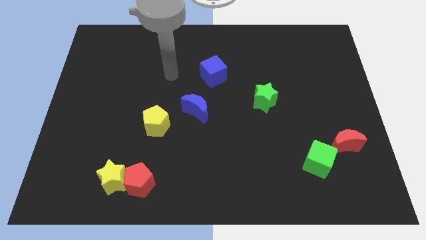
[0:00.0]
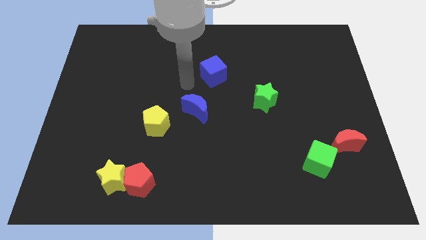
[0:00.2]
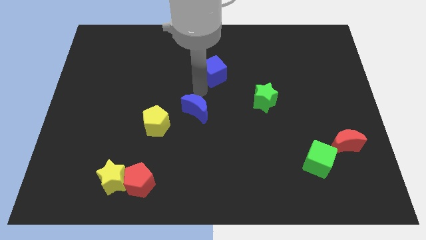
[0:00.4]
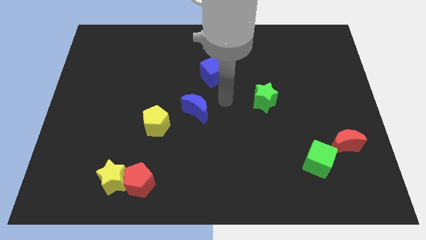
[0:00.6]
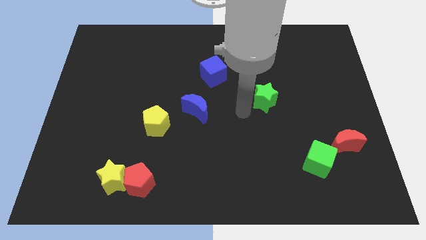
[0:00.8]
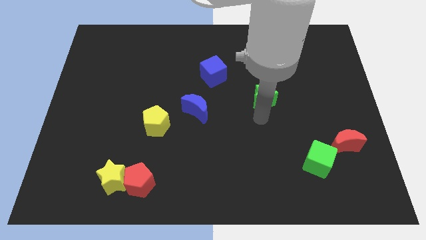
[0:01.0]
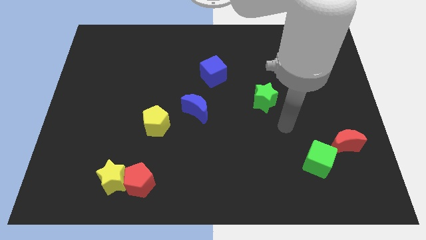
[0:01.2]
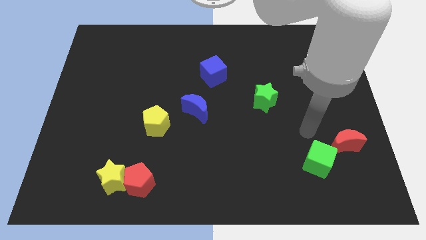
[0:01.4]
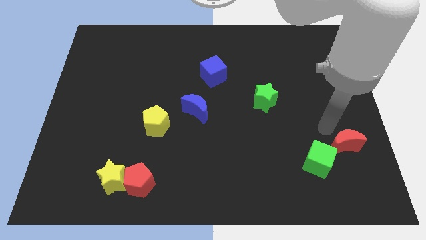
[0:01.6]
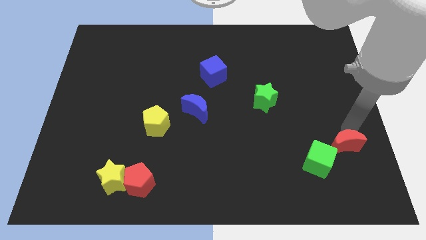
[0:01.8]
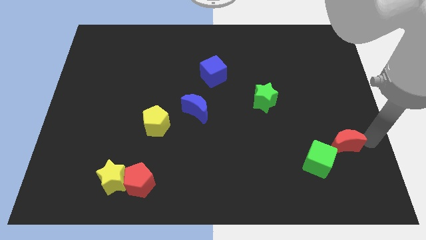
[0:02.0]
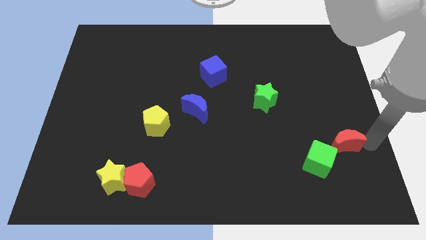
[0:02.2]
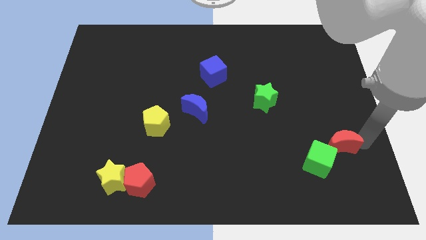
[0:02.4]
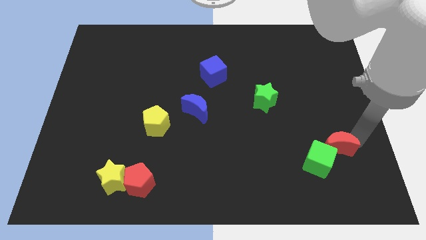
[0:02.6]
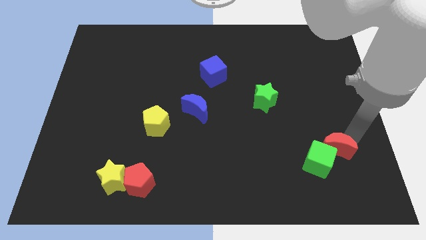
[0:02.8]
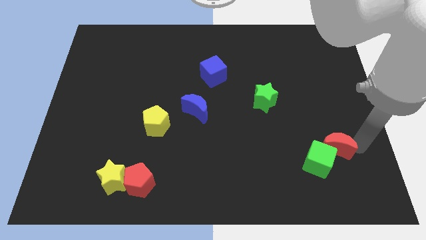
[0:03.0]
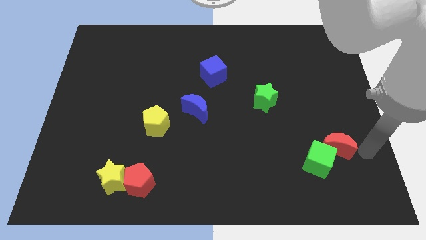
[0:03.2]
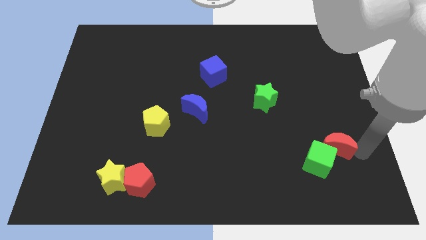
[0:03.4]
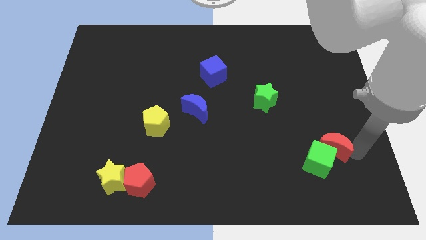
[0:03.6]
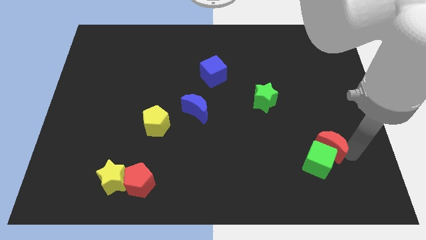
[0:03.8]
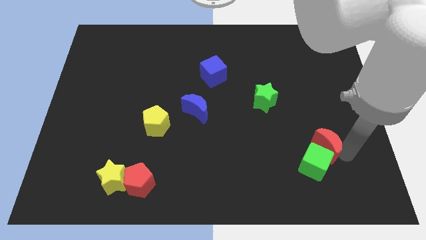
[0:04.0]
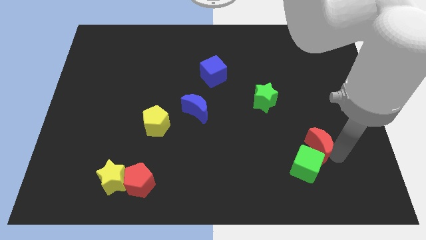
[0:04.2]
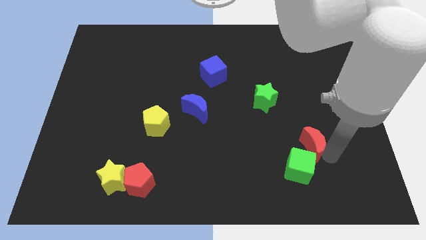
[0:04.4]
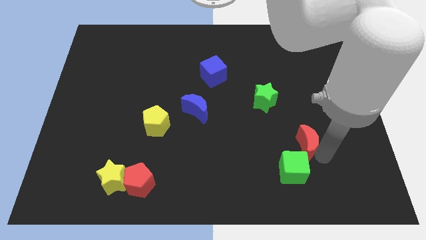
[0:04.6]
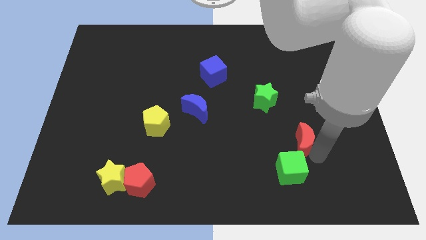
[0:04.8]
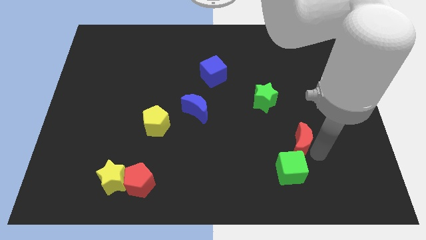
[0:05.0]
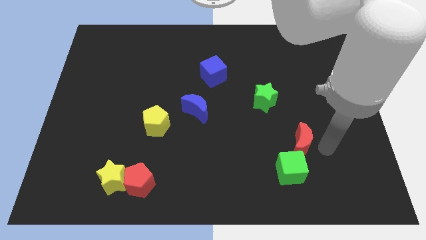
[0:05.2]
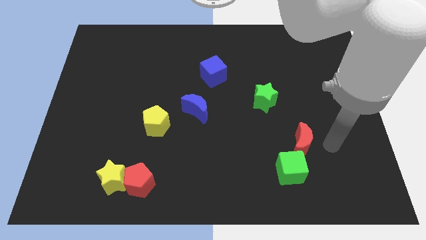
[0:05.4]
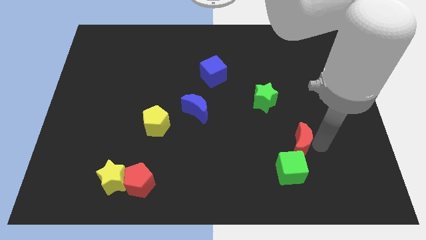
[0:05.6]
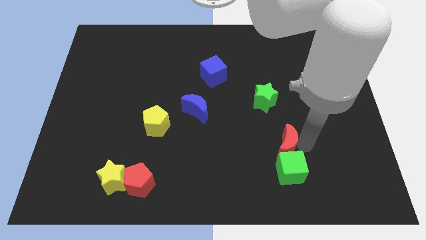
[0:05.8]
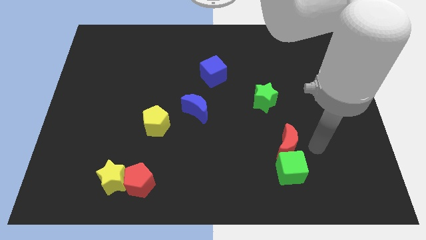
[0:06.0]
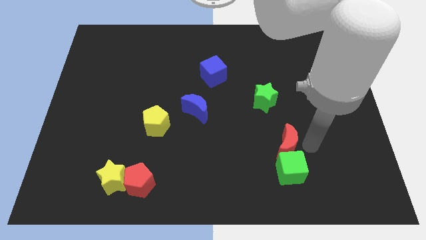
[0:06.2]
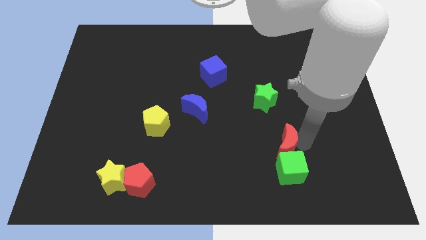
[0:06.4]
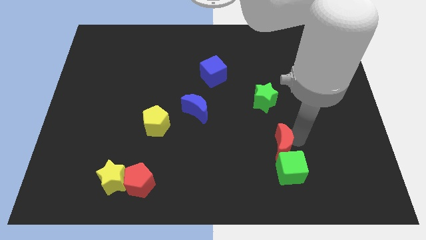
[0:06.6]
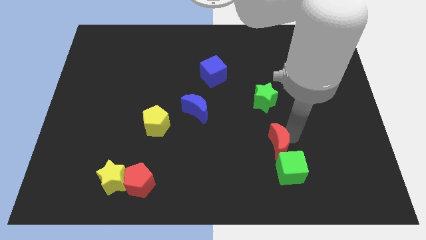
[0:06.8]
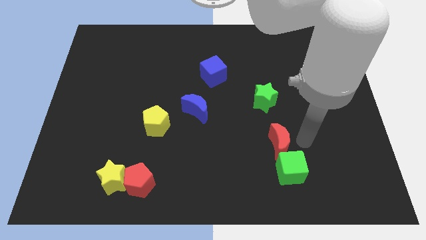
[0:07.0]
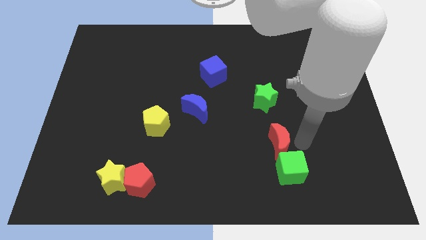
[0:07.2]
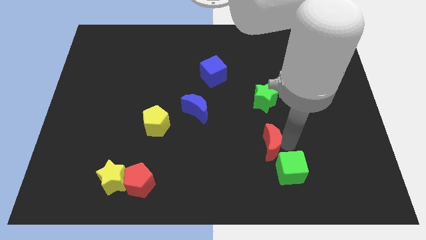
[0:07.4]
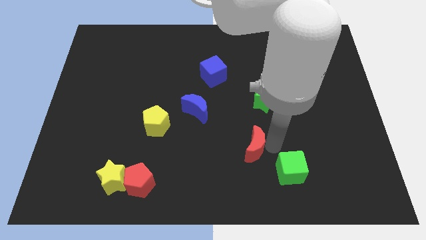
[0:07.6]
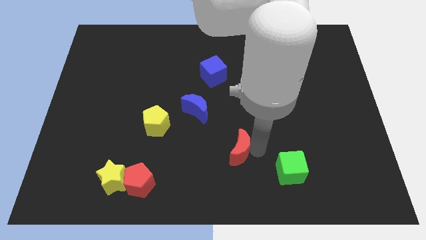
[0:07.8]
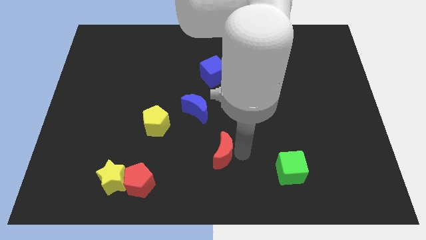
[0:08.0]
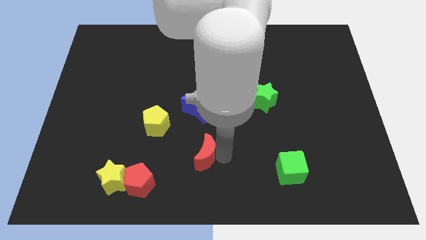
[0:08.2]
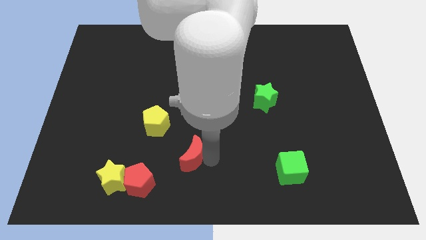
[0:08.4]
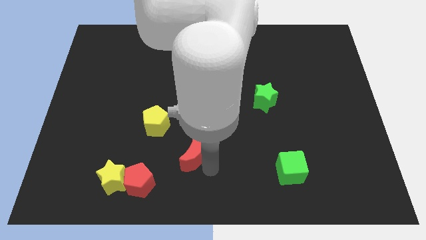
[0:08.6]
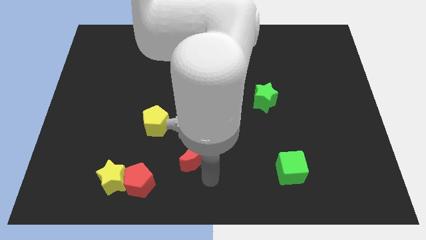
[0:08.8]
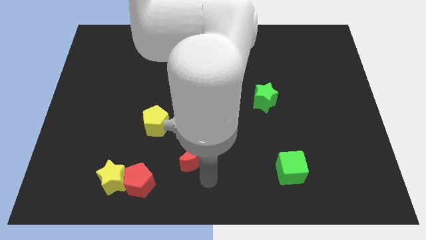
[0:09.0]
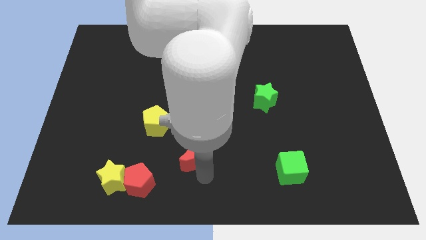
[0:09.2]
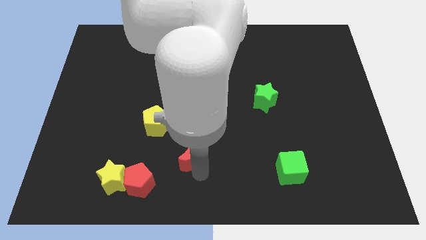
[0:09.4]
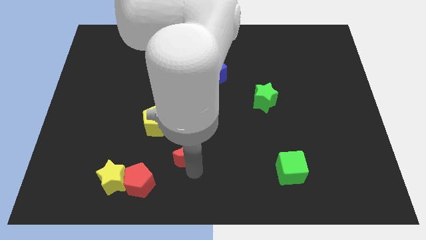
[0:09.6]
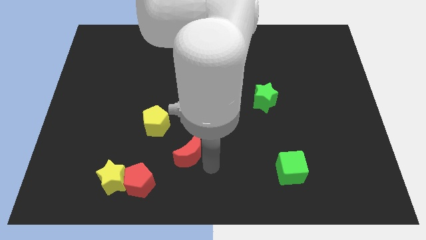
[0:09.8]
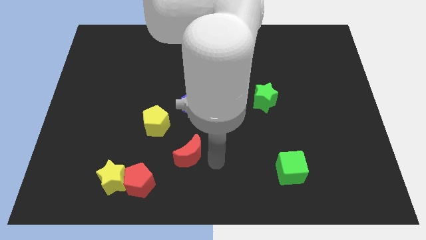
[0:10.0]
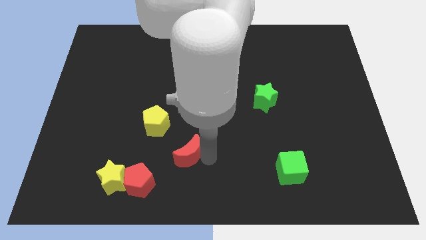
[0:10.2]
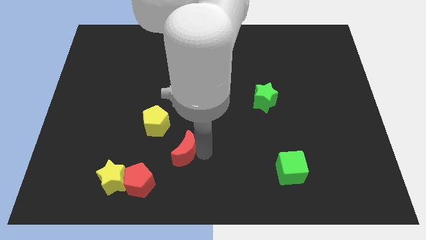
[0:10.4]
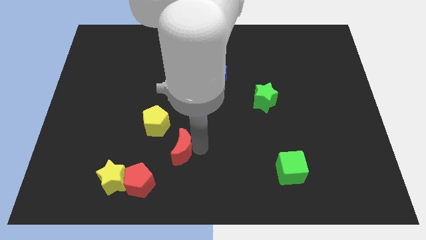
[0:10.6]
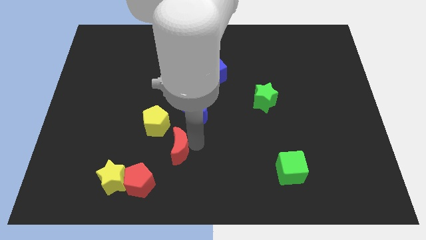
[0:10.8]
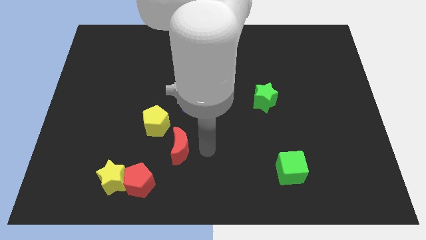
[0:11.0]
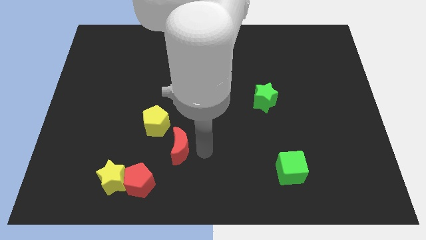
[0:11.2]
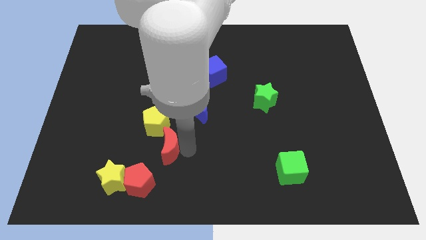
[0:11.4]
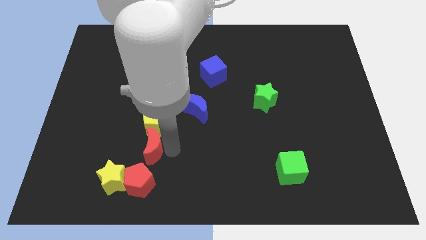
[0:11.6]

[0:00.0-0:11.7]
push the red moon diagonally down and to the left of the yellow pentagon

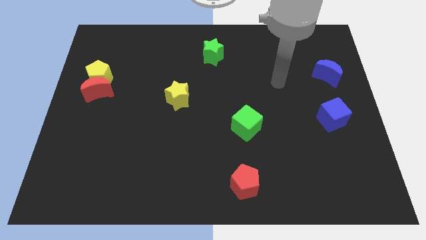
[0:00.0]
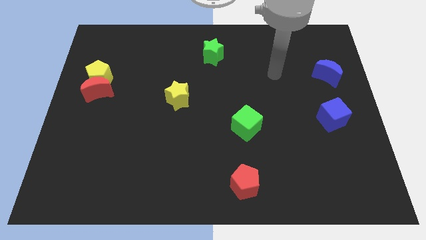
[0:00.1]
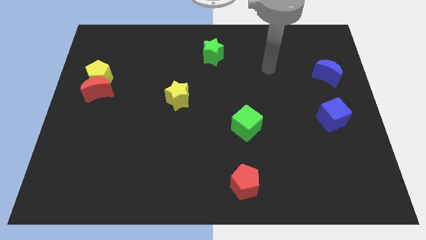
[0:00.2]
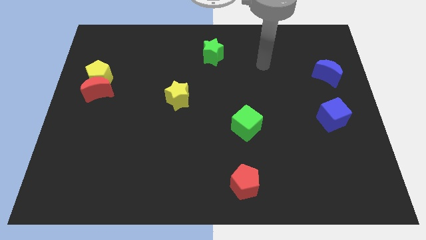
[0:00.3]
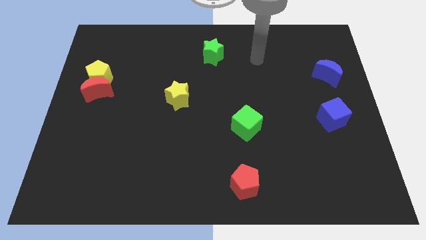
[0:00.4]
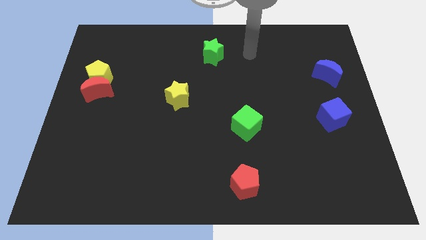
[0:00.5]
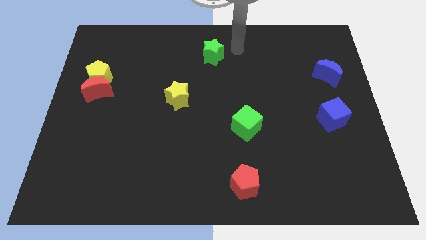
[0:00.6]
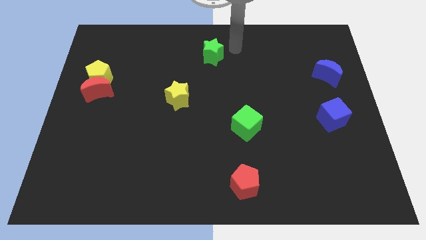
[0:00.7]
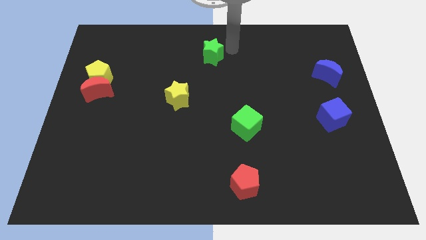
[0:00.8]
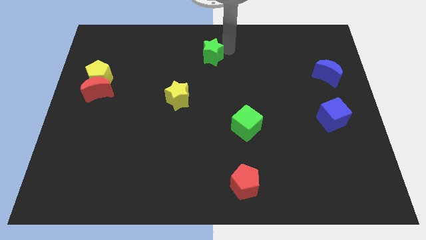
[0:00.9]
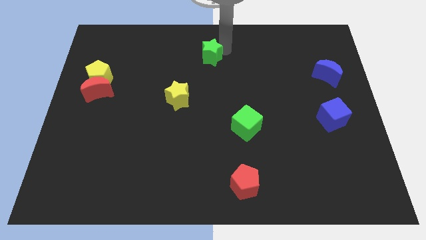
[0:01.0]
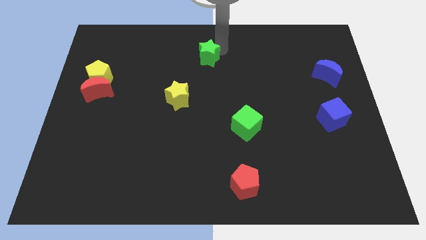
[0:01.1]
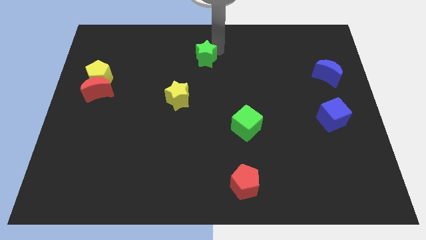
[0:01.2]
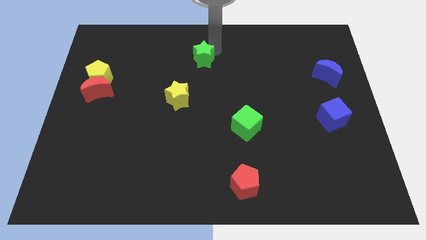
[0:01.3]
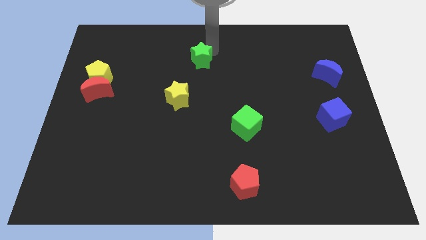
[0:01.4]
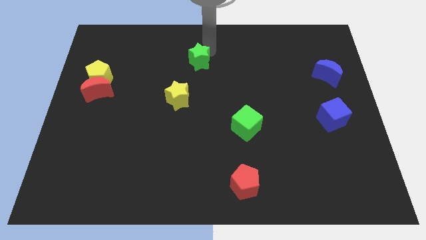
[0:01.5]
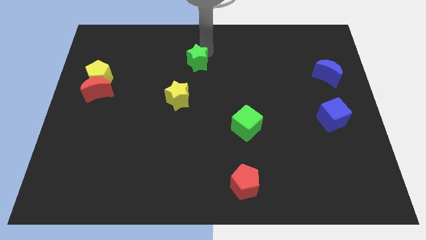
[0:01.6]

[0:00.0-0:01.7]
slide the green star to the top side of the yellow star

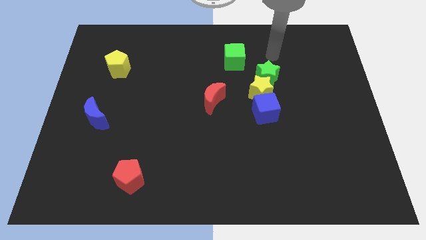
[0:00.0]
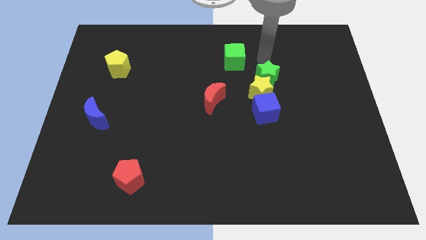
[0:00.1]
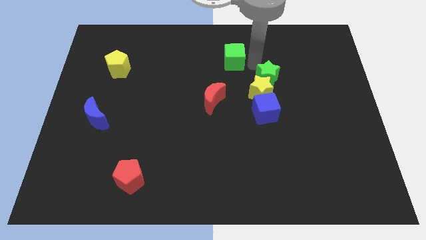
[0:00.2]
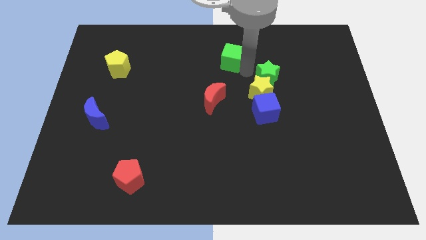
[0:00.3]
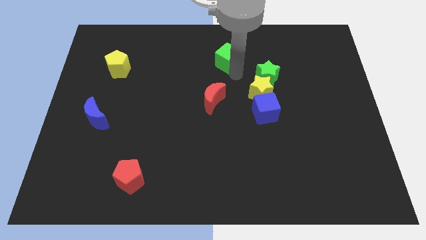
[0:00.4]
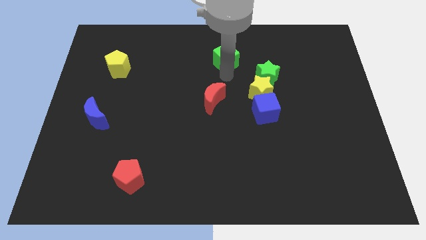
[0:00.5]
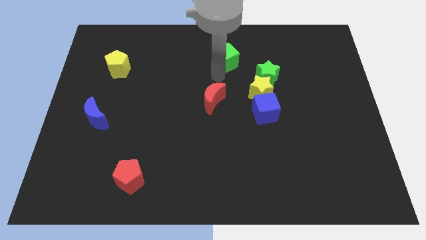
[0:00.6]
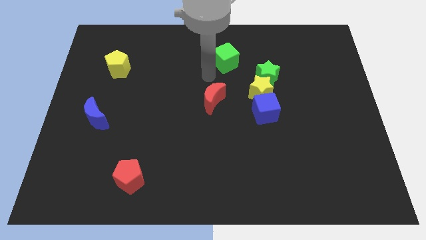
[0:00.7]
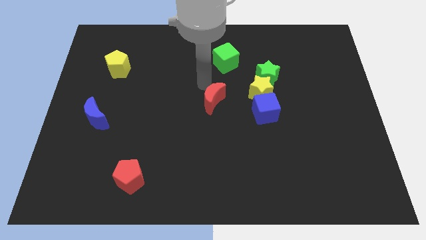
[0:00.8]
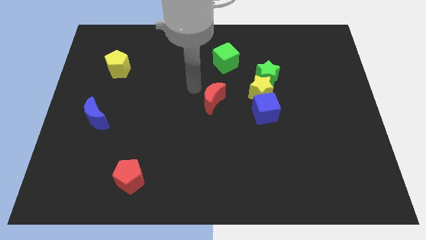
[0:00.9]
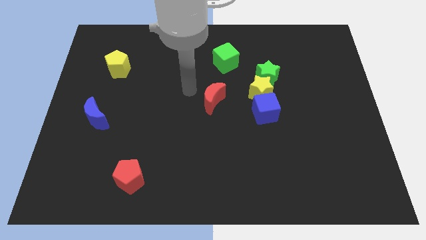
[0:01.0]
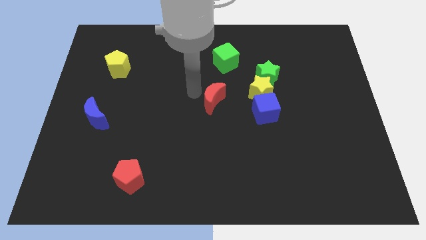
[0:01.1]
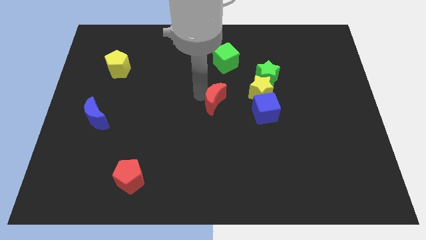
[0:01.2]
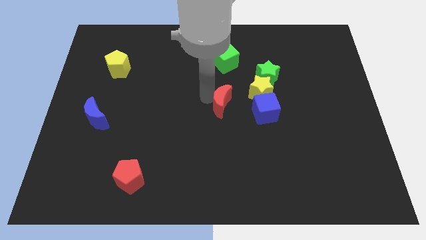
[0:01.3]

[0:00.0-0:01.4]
put the red moon to the bottom left of the yellow star
